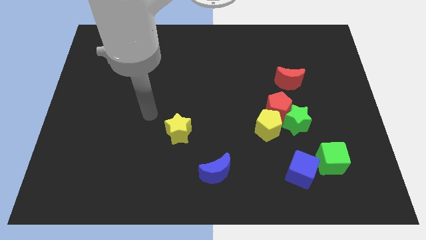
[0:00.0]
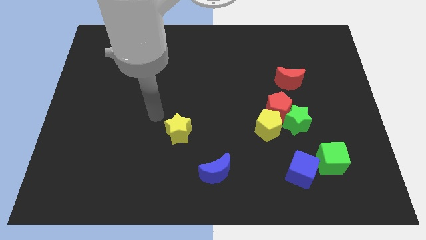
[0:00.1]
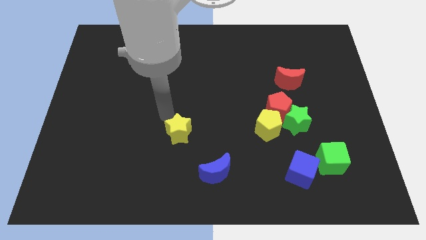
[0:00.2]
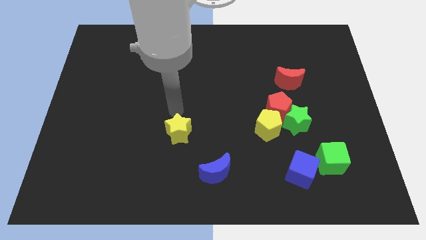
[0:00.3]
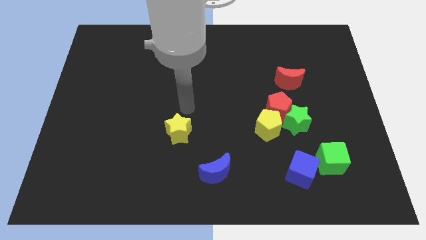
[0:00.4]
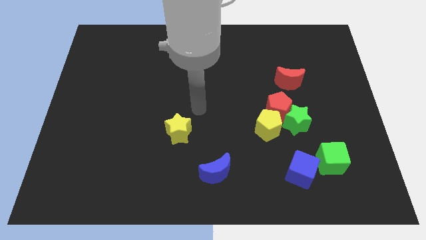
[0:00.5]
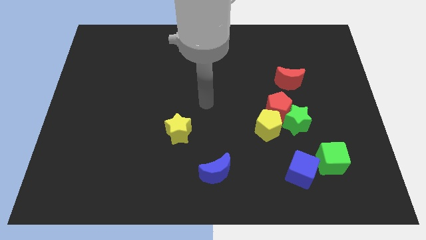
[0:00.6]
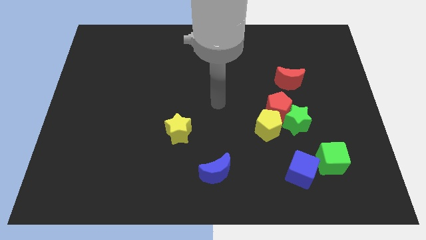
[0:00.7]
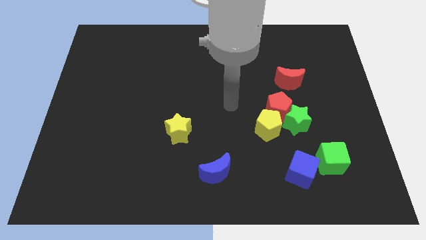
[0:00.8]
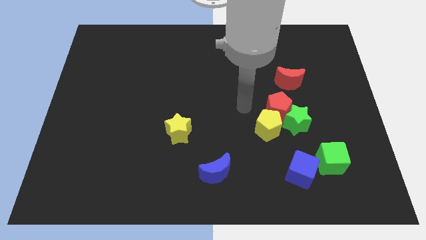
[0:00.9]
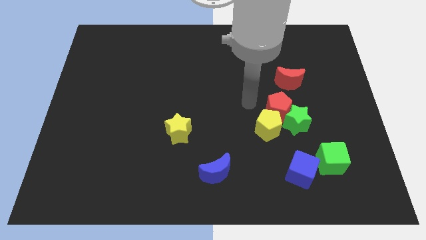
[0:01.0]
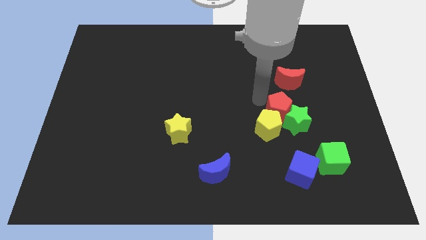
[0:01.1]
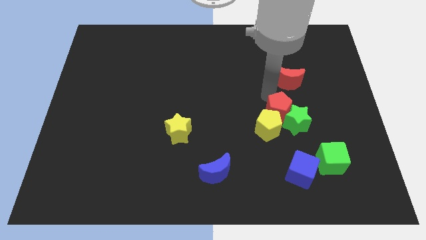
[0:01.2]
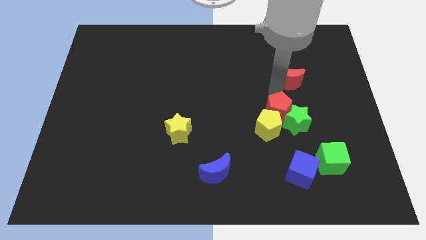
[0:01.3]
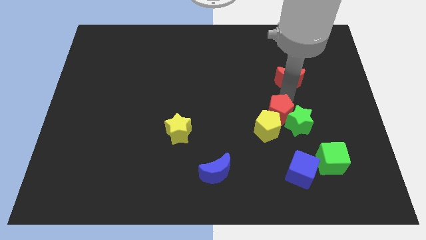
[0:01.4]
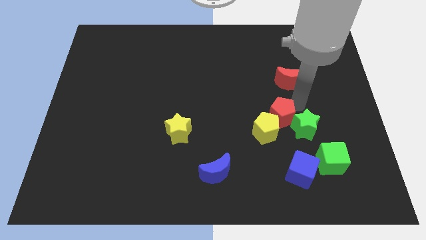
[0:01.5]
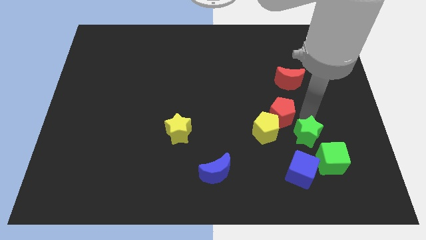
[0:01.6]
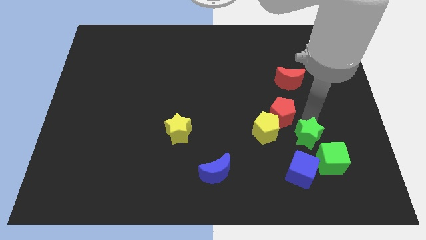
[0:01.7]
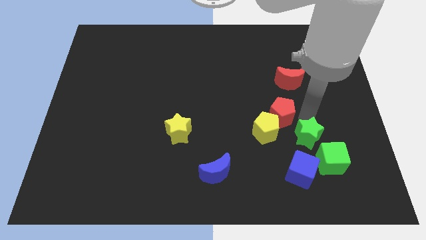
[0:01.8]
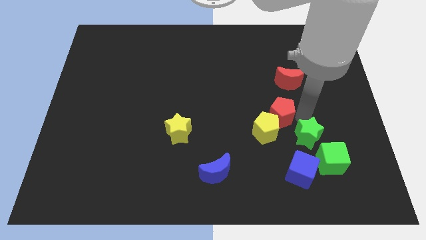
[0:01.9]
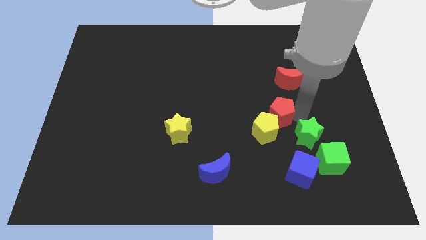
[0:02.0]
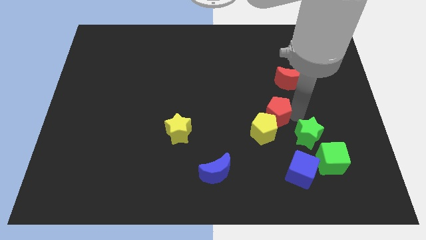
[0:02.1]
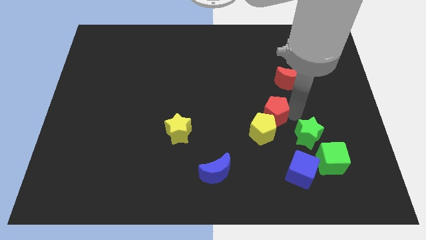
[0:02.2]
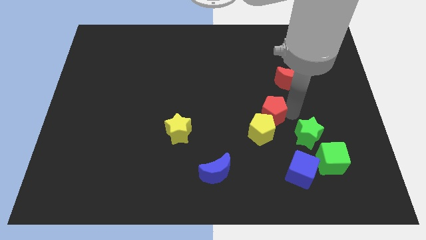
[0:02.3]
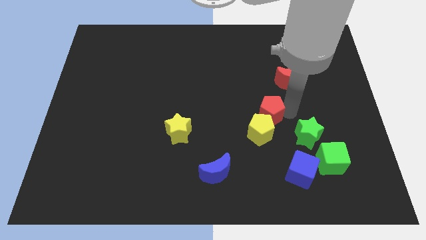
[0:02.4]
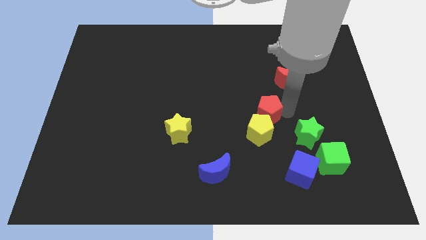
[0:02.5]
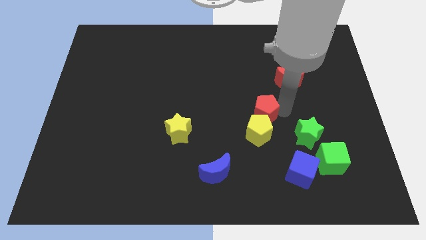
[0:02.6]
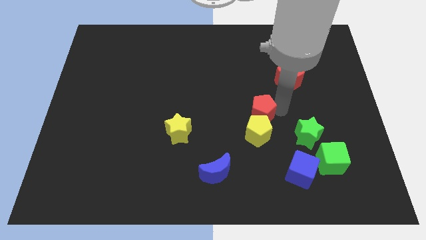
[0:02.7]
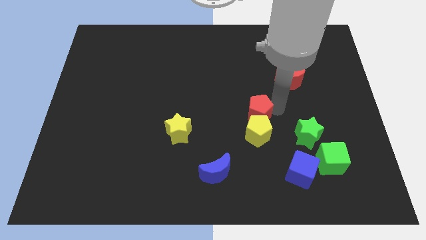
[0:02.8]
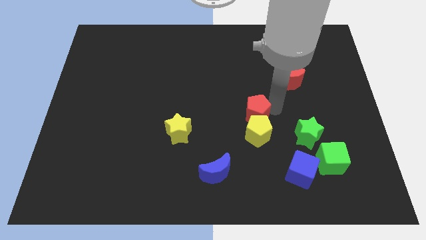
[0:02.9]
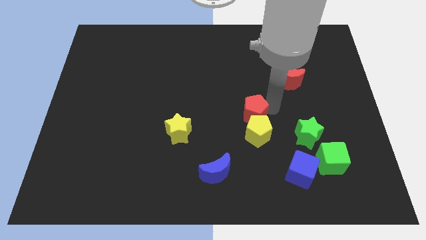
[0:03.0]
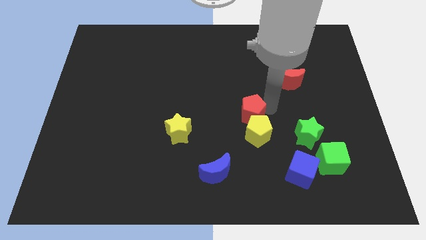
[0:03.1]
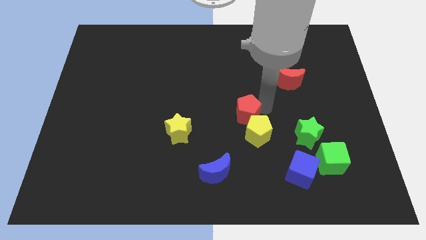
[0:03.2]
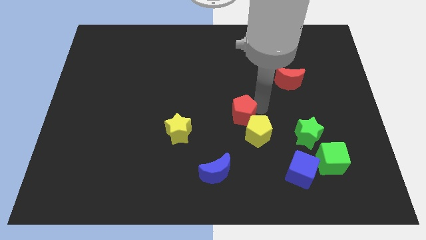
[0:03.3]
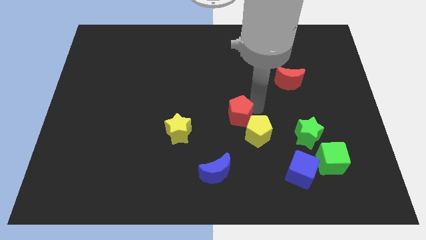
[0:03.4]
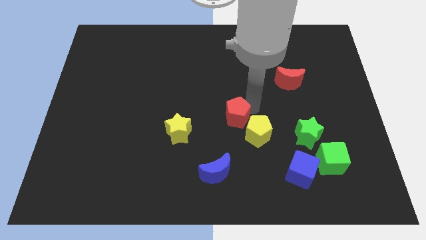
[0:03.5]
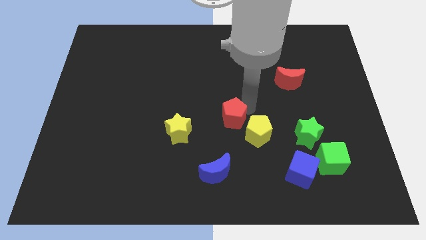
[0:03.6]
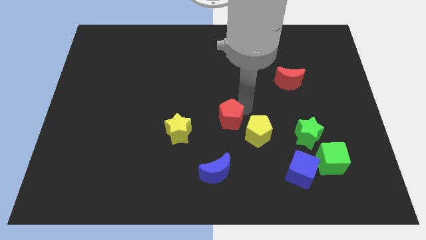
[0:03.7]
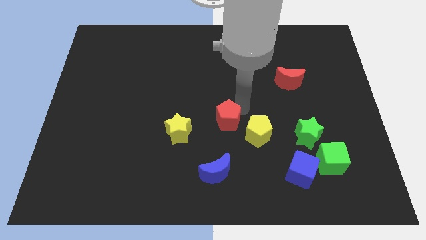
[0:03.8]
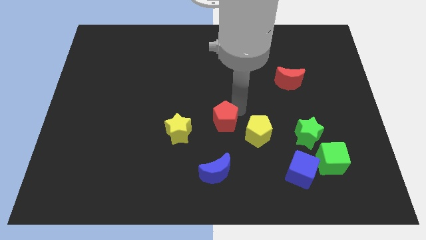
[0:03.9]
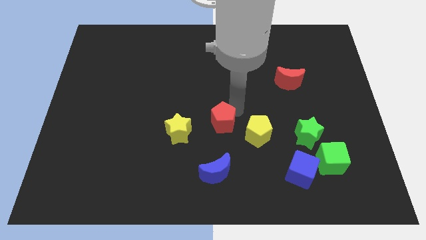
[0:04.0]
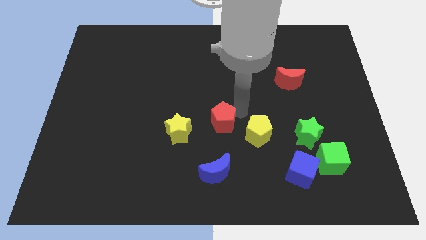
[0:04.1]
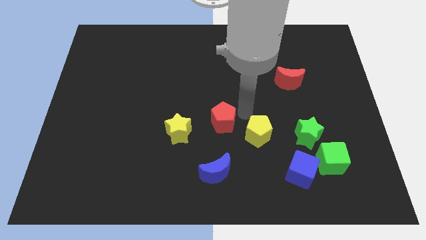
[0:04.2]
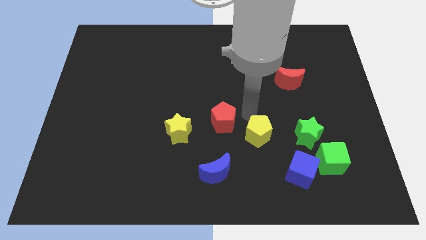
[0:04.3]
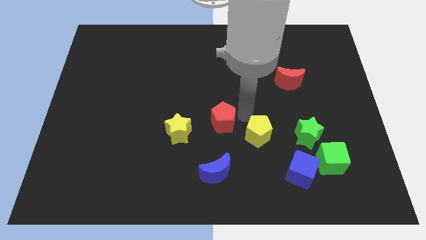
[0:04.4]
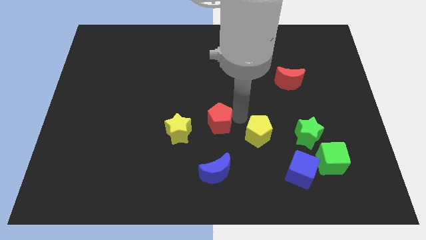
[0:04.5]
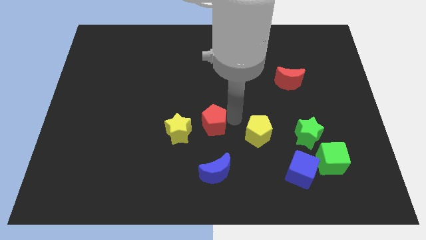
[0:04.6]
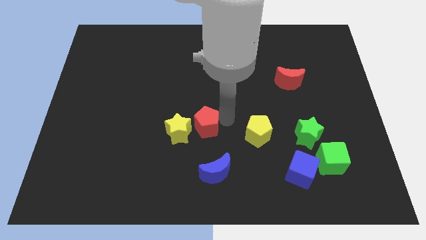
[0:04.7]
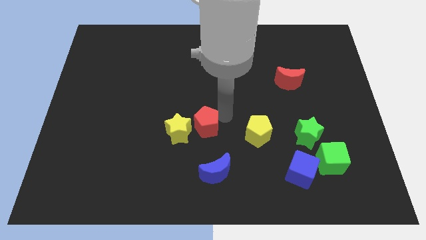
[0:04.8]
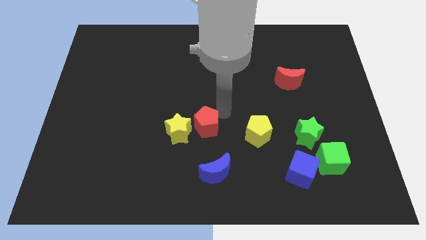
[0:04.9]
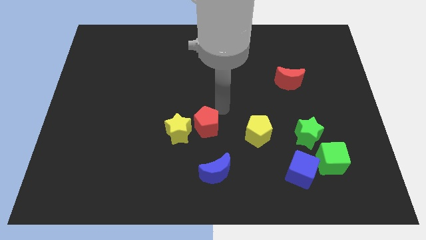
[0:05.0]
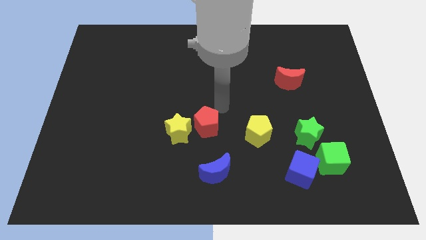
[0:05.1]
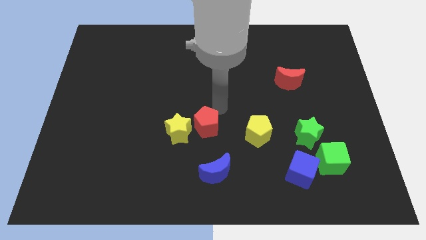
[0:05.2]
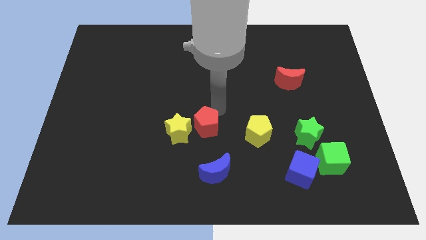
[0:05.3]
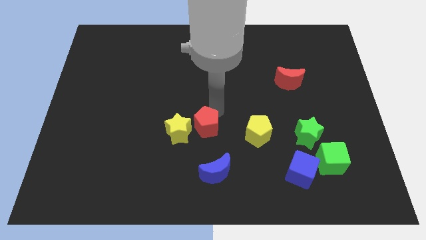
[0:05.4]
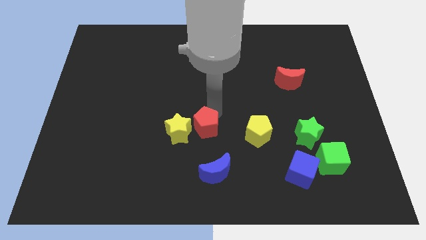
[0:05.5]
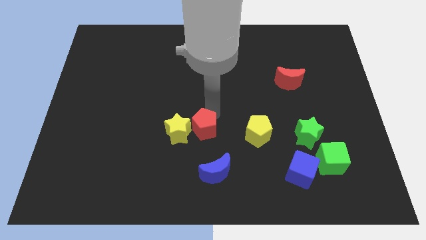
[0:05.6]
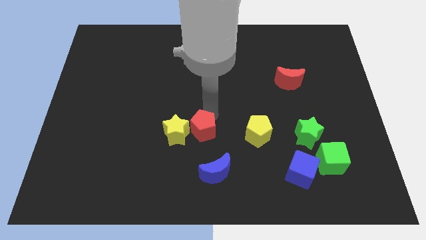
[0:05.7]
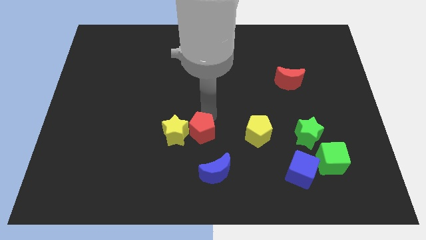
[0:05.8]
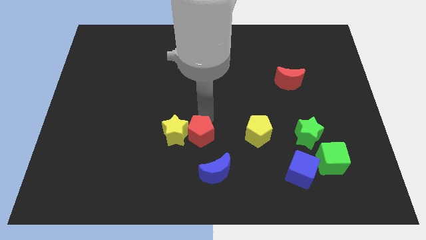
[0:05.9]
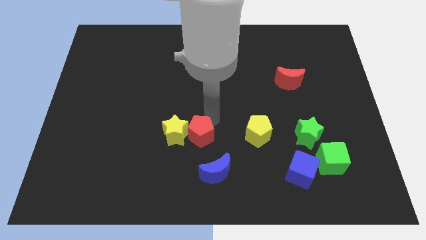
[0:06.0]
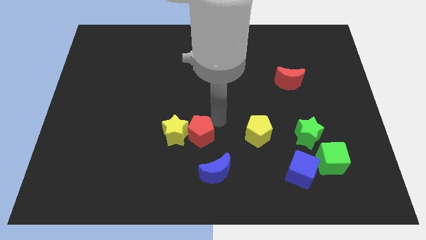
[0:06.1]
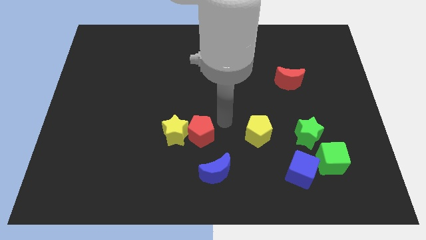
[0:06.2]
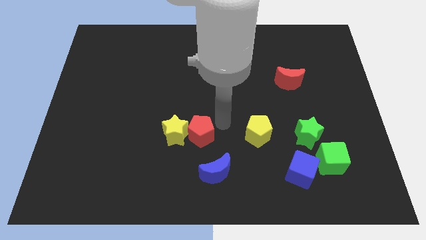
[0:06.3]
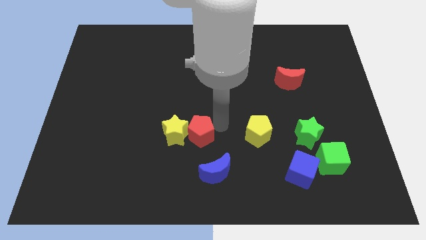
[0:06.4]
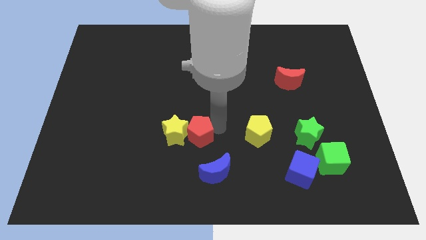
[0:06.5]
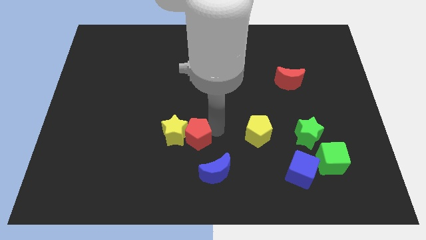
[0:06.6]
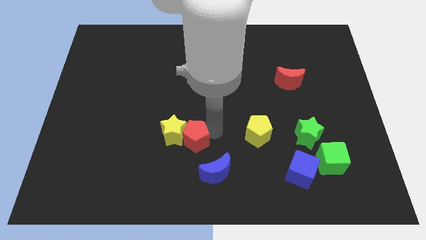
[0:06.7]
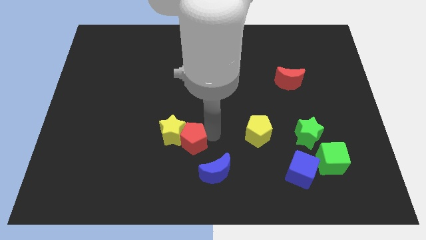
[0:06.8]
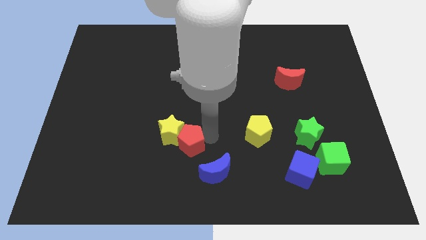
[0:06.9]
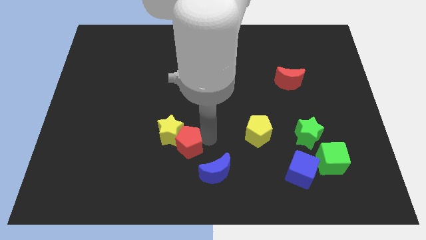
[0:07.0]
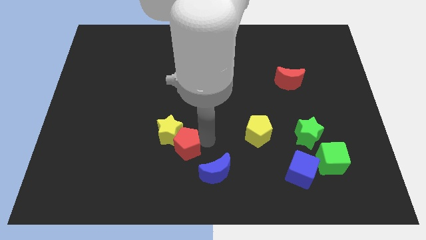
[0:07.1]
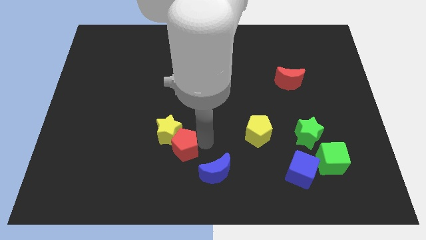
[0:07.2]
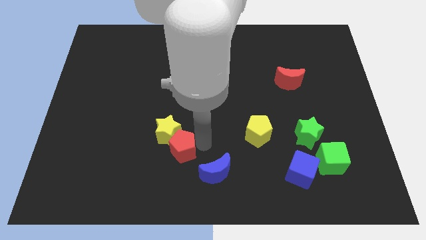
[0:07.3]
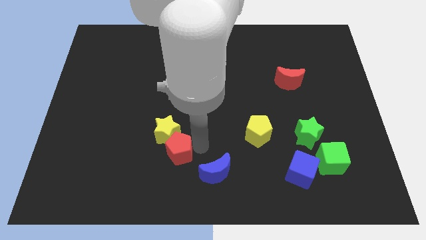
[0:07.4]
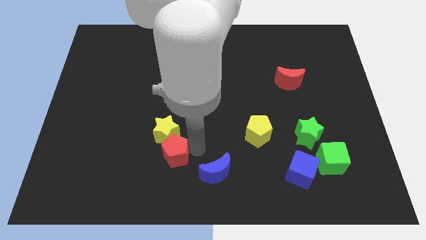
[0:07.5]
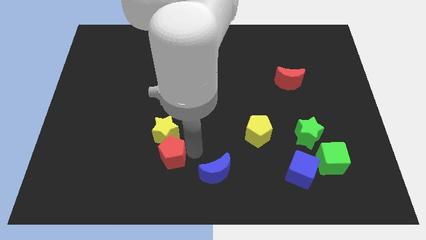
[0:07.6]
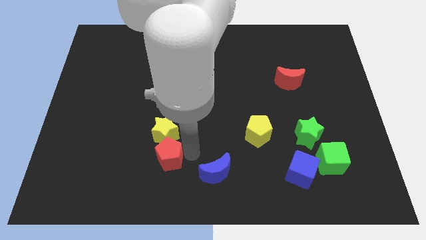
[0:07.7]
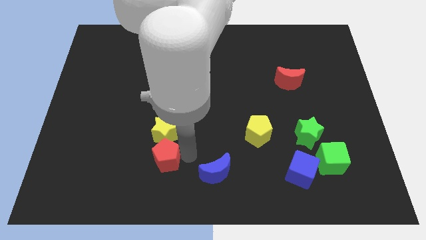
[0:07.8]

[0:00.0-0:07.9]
slide the red pentagon to the bottom left of the yellow star

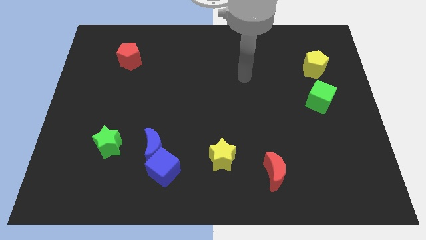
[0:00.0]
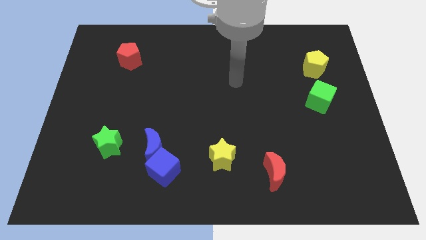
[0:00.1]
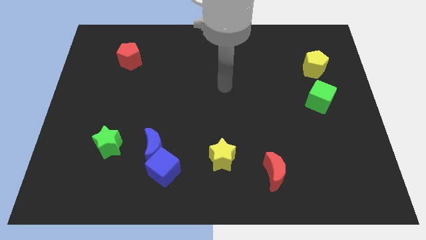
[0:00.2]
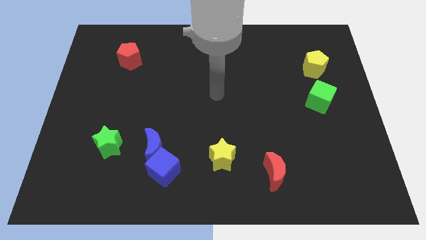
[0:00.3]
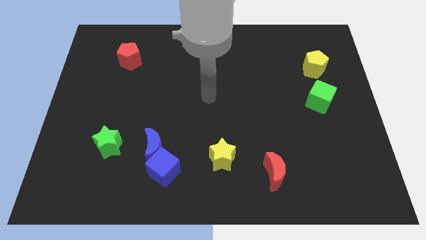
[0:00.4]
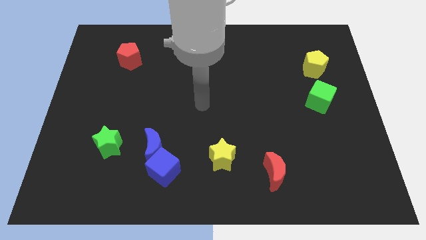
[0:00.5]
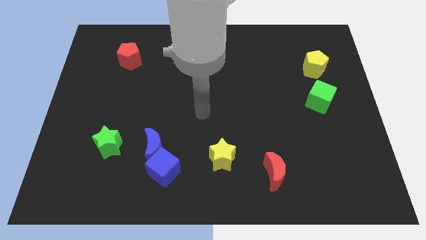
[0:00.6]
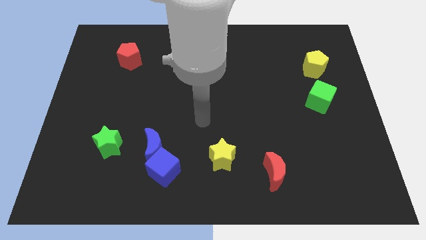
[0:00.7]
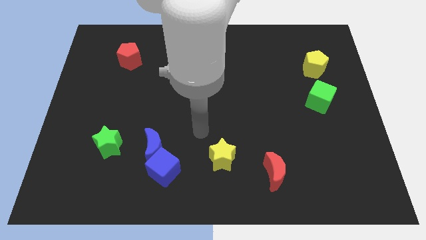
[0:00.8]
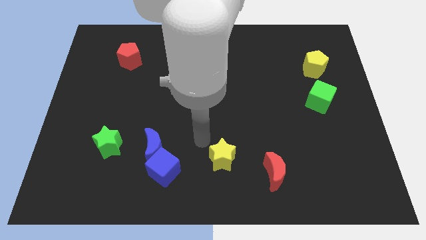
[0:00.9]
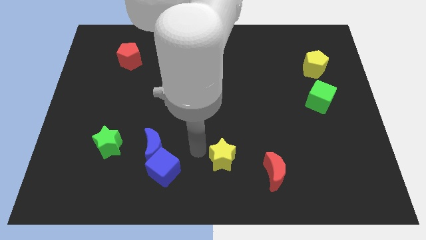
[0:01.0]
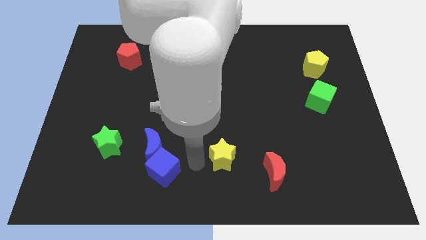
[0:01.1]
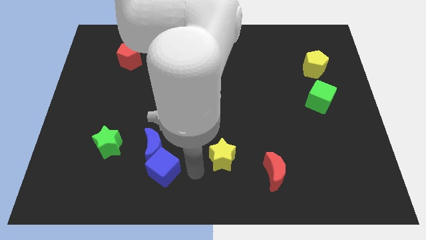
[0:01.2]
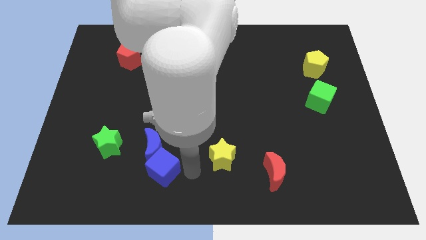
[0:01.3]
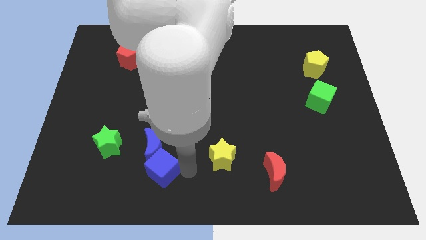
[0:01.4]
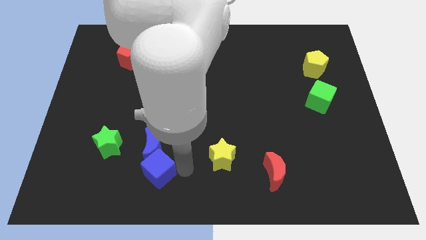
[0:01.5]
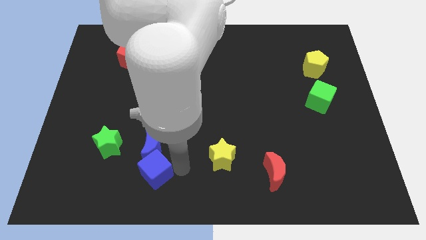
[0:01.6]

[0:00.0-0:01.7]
move the blue cube to the bottom right side of the green star
